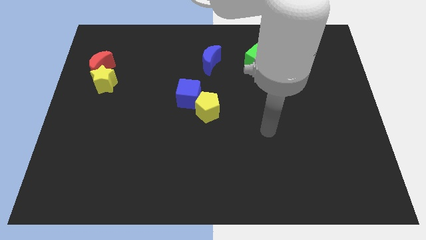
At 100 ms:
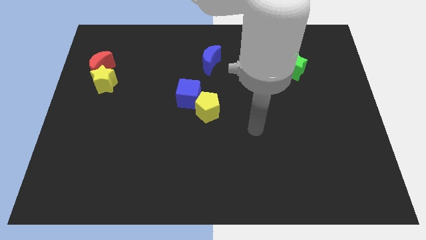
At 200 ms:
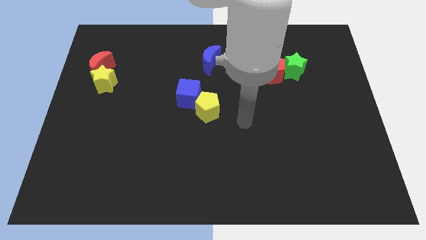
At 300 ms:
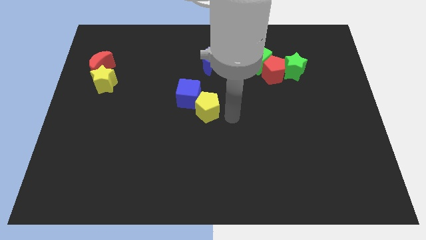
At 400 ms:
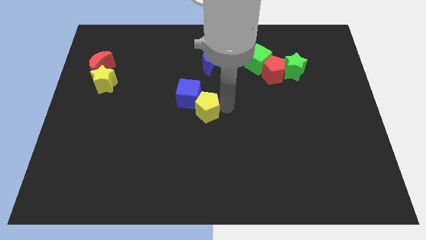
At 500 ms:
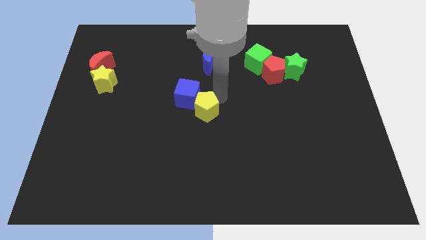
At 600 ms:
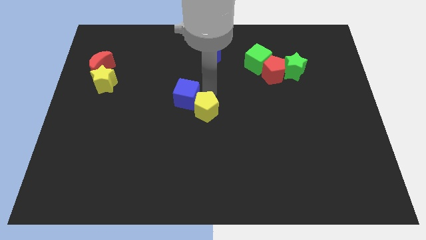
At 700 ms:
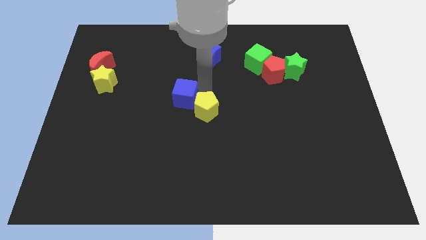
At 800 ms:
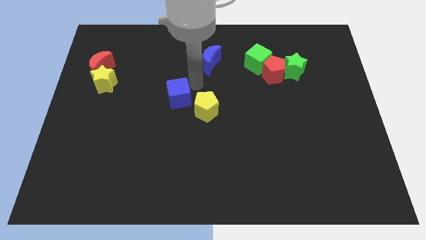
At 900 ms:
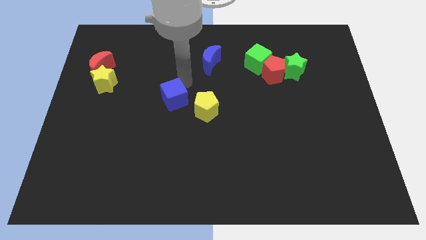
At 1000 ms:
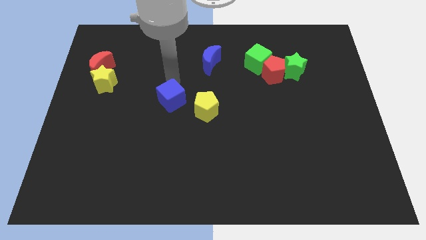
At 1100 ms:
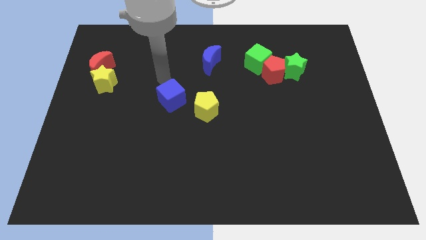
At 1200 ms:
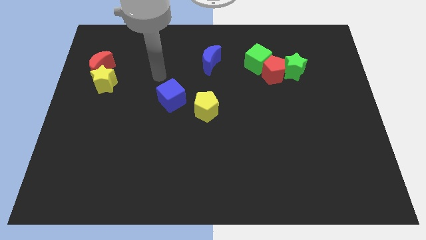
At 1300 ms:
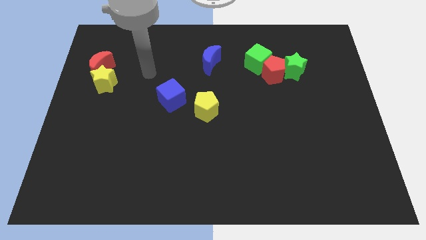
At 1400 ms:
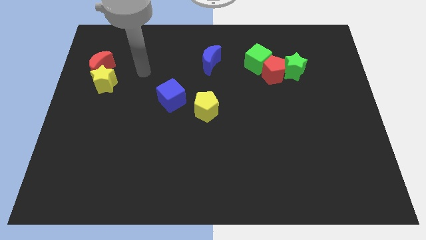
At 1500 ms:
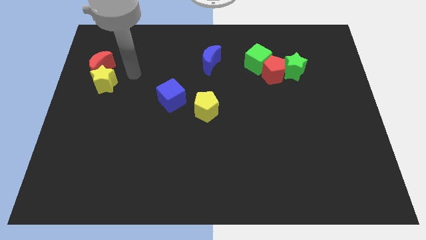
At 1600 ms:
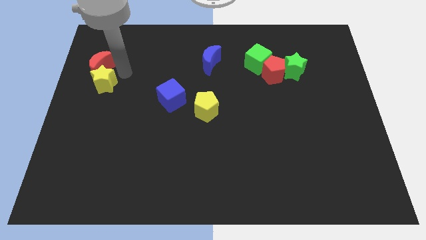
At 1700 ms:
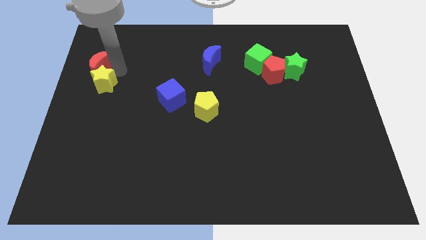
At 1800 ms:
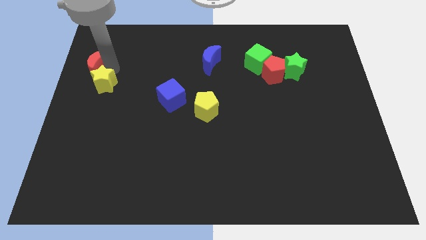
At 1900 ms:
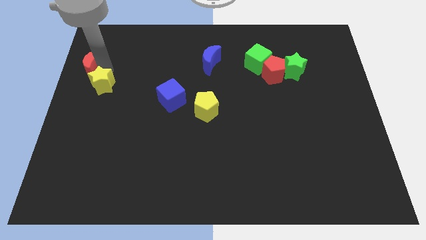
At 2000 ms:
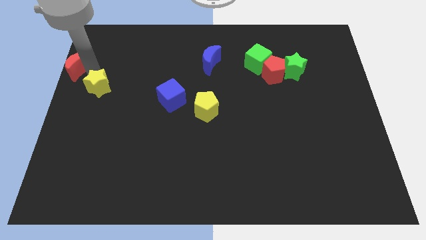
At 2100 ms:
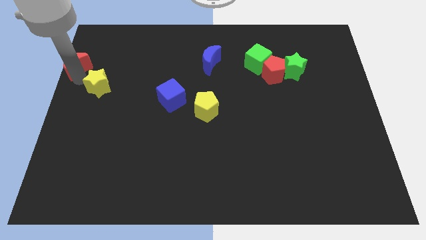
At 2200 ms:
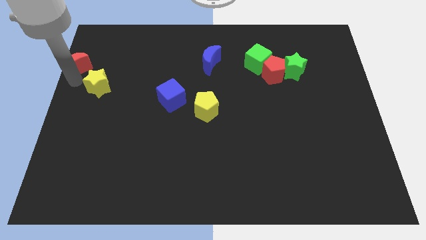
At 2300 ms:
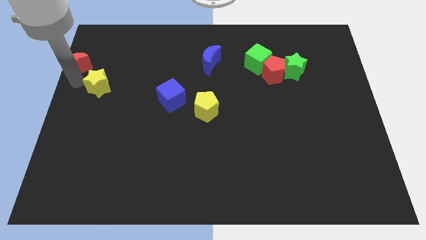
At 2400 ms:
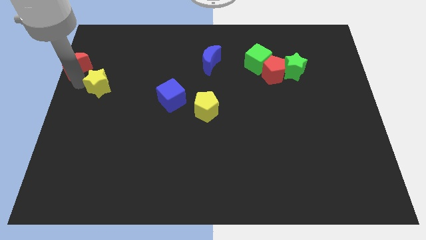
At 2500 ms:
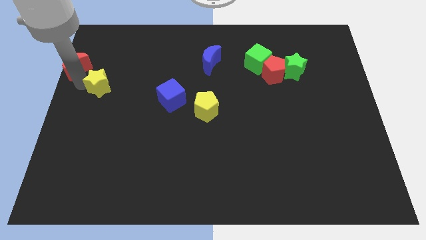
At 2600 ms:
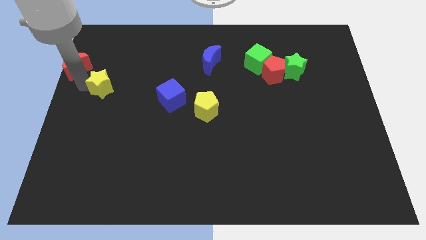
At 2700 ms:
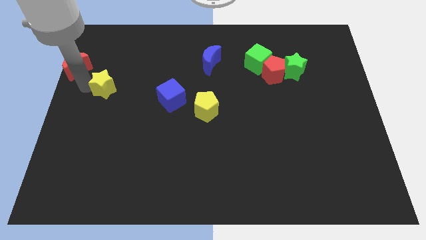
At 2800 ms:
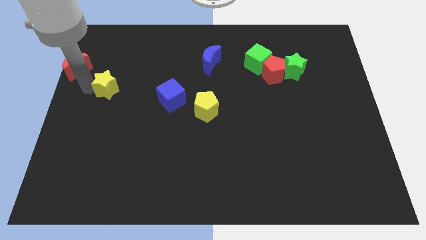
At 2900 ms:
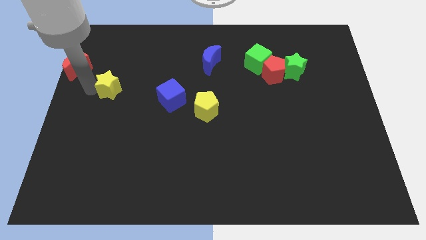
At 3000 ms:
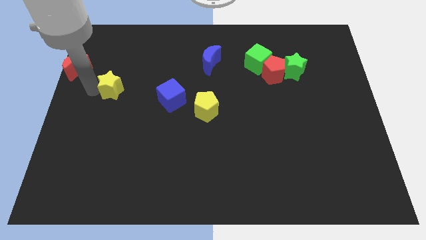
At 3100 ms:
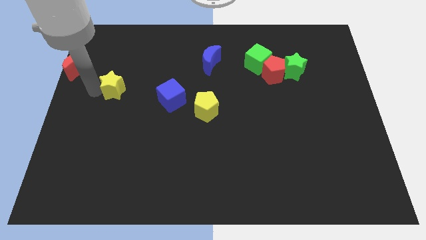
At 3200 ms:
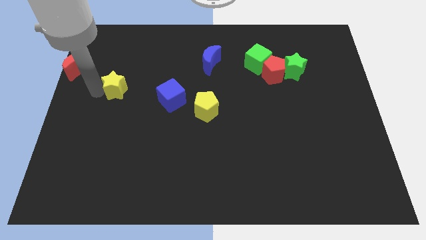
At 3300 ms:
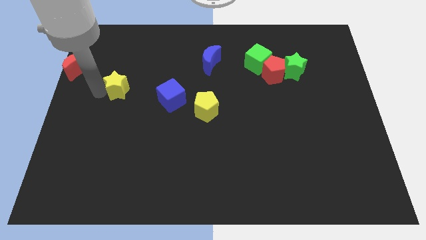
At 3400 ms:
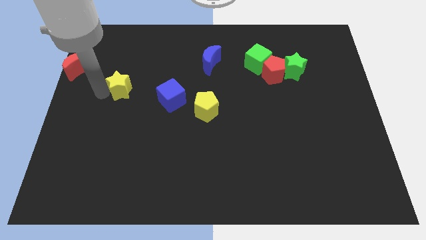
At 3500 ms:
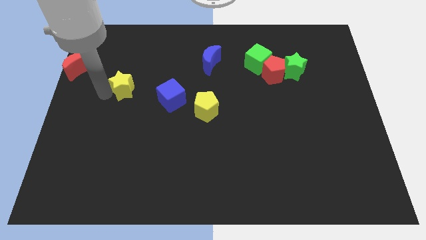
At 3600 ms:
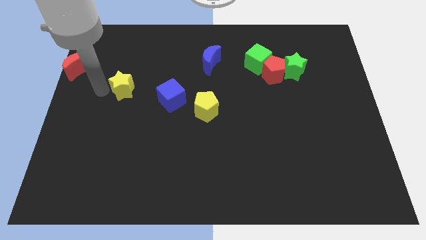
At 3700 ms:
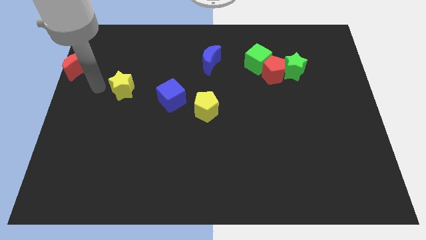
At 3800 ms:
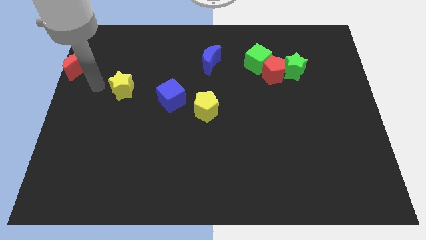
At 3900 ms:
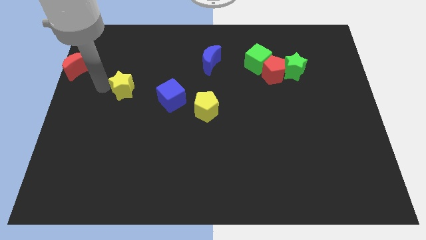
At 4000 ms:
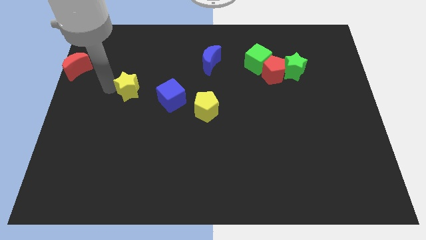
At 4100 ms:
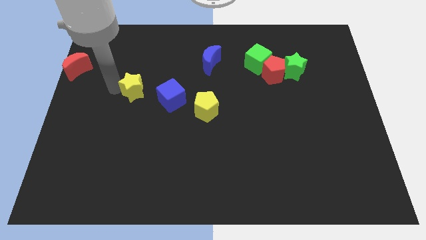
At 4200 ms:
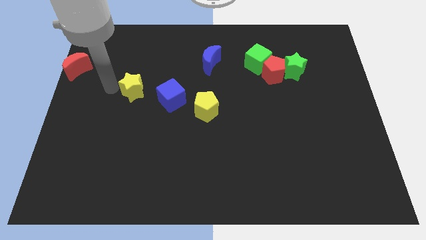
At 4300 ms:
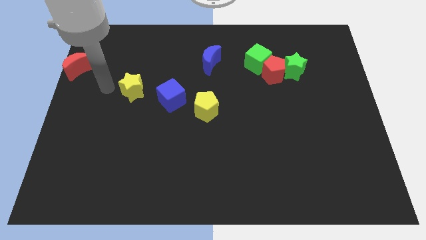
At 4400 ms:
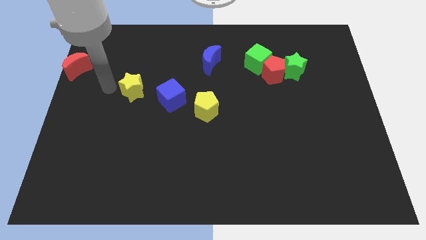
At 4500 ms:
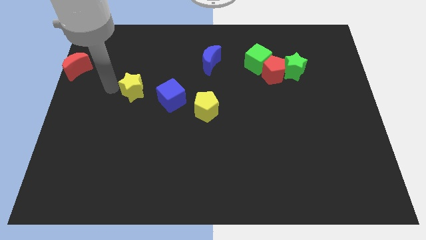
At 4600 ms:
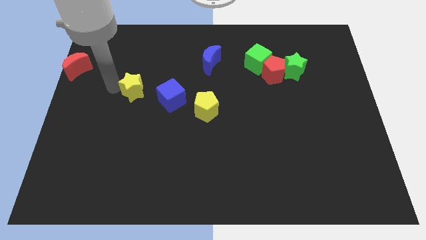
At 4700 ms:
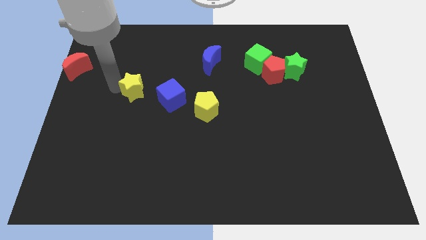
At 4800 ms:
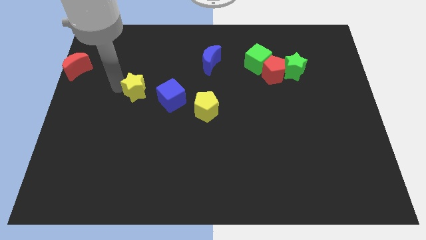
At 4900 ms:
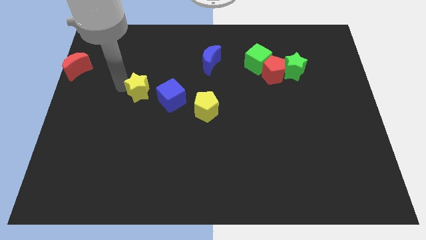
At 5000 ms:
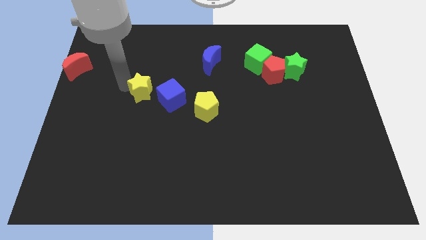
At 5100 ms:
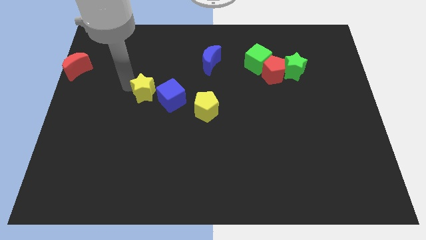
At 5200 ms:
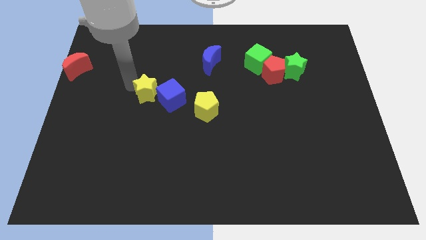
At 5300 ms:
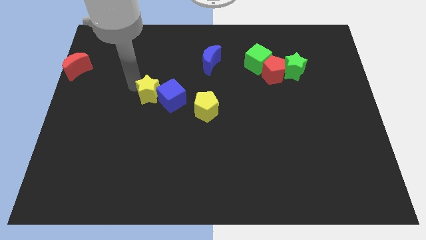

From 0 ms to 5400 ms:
push the yellow star close to the blue cube

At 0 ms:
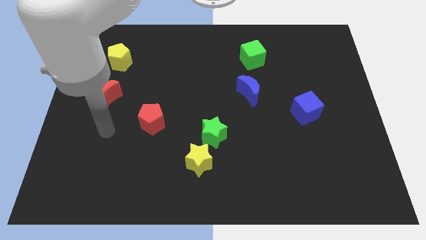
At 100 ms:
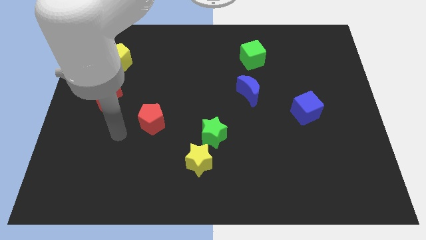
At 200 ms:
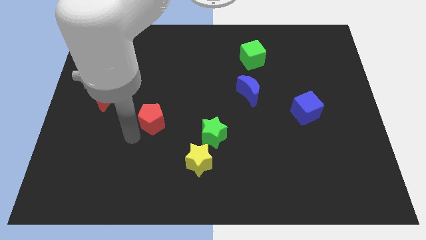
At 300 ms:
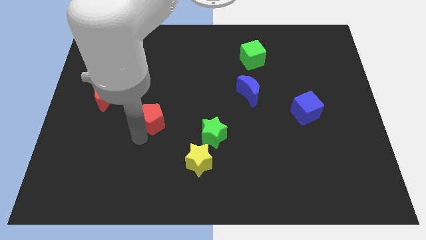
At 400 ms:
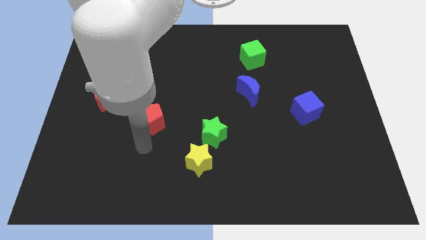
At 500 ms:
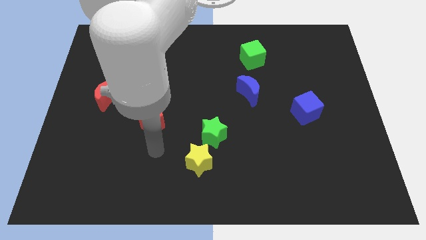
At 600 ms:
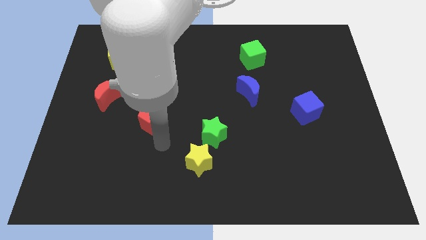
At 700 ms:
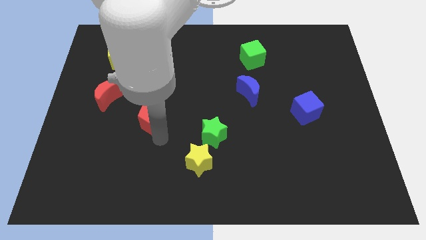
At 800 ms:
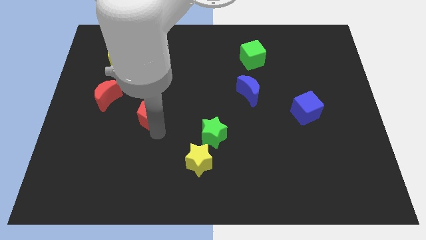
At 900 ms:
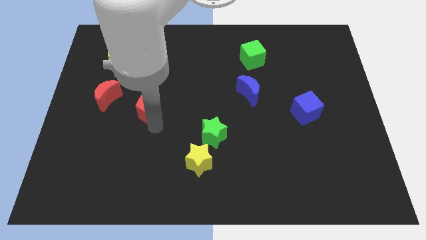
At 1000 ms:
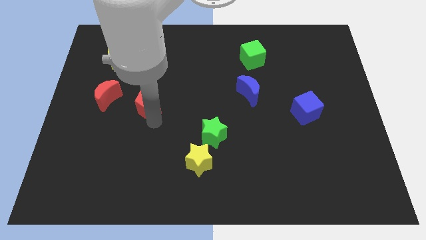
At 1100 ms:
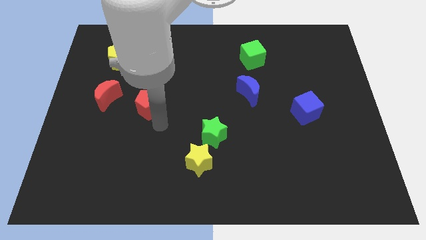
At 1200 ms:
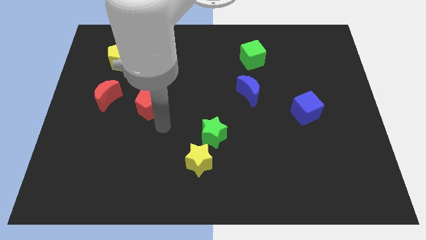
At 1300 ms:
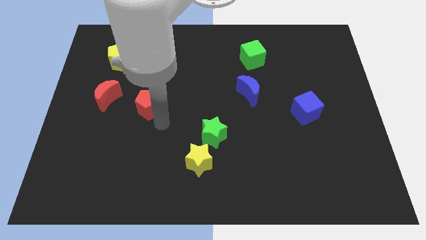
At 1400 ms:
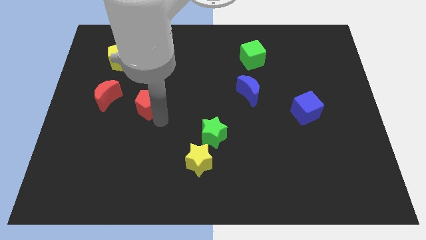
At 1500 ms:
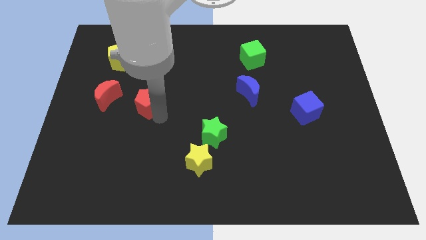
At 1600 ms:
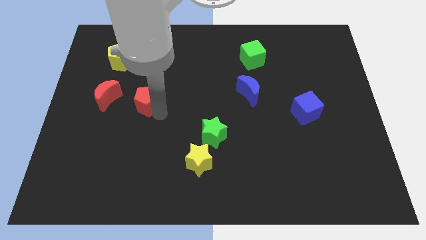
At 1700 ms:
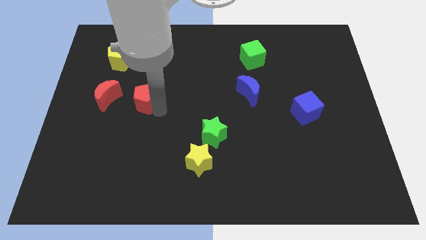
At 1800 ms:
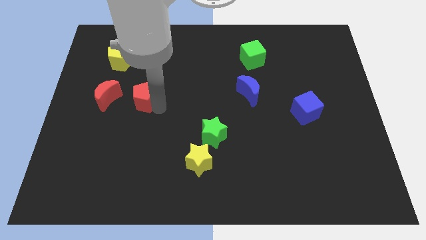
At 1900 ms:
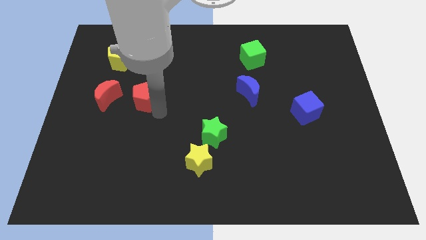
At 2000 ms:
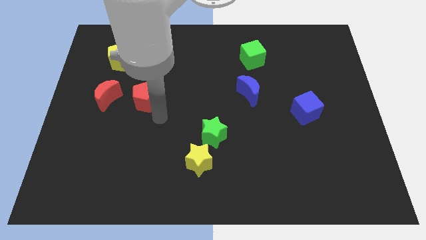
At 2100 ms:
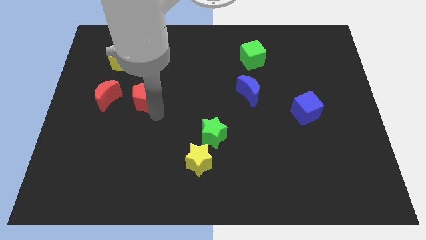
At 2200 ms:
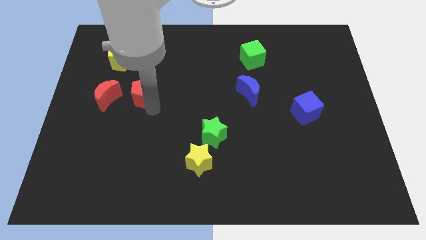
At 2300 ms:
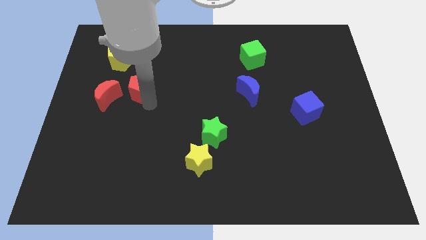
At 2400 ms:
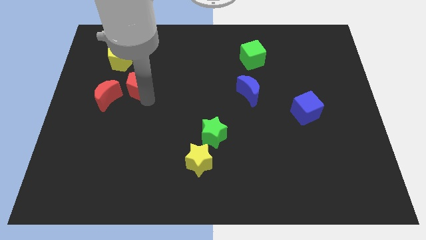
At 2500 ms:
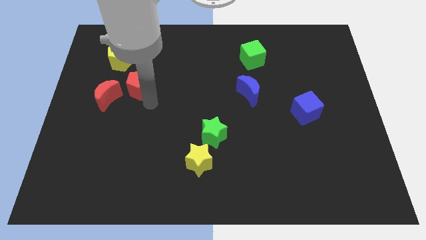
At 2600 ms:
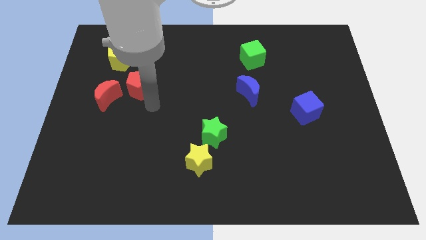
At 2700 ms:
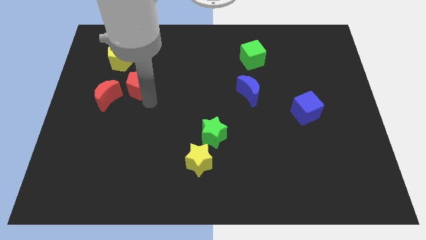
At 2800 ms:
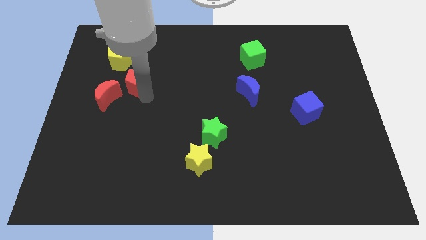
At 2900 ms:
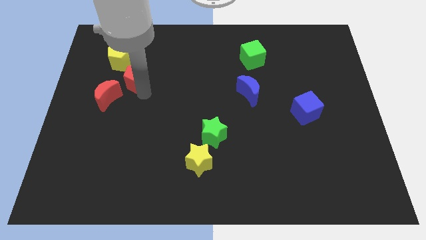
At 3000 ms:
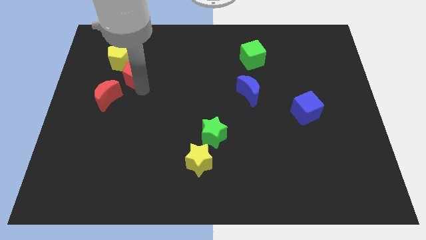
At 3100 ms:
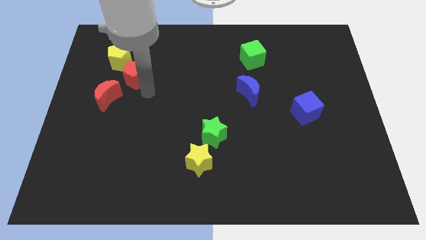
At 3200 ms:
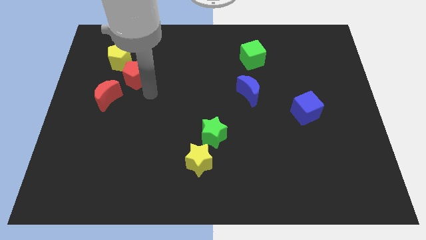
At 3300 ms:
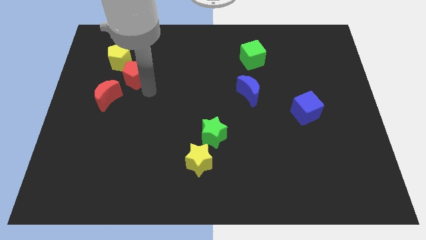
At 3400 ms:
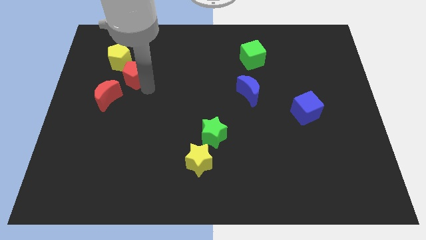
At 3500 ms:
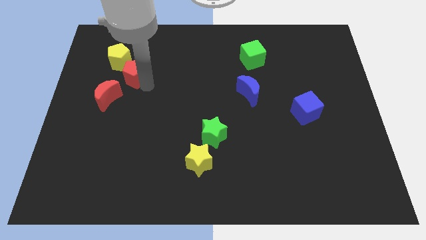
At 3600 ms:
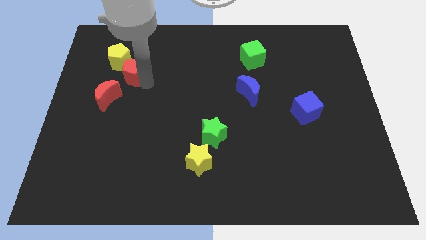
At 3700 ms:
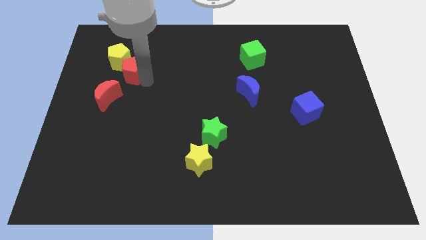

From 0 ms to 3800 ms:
move the red pentagon next to the yellow pentagon
